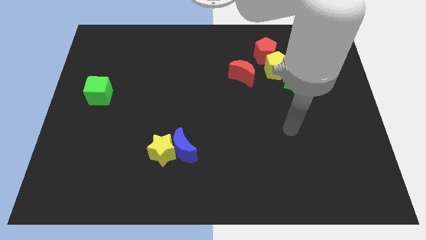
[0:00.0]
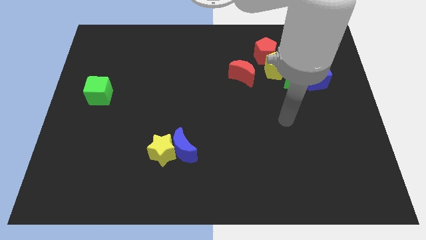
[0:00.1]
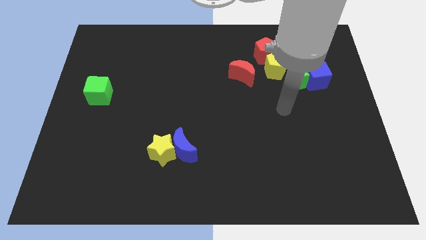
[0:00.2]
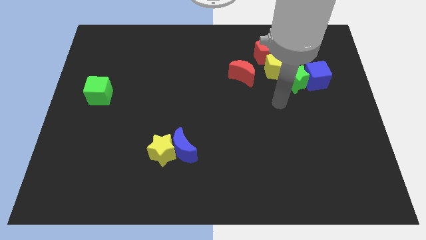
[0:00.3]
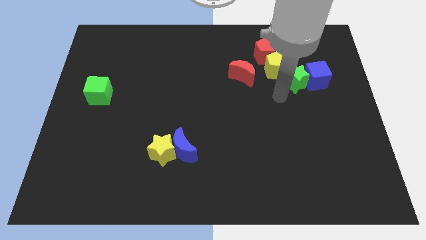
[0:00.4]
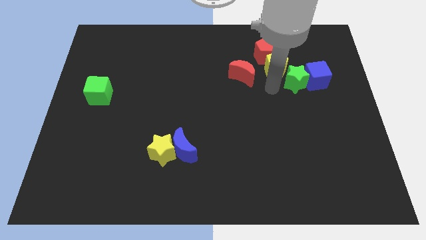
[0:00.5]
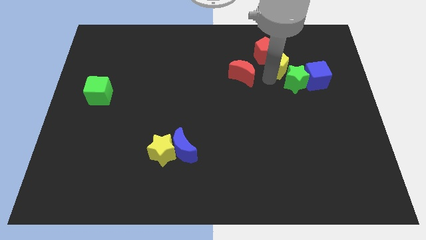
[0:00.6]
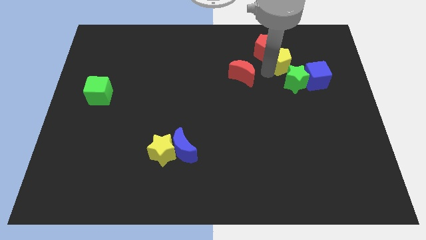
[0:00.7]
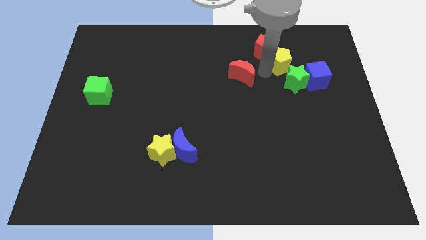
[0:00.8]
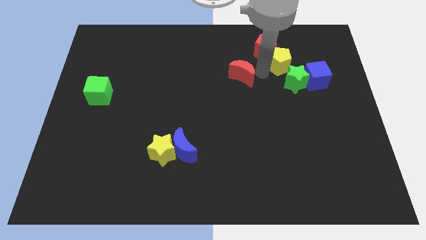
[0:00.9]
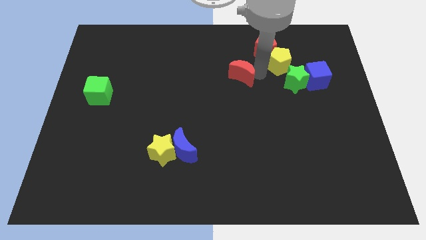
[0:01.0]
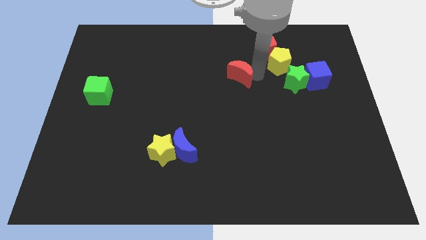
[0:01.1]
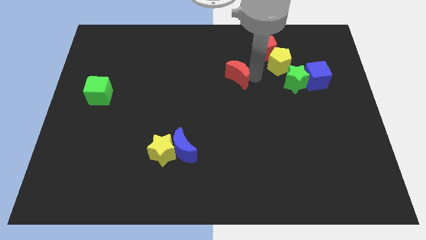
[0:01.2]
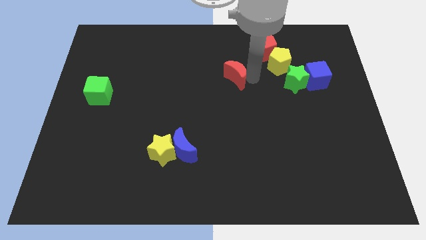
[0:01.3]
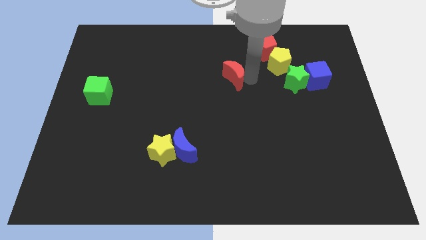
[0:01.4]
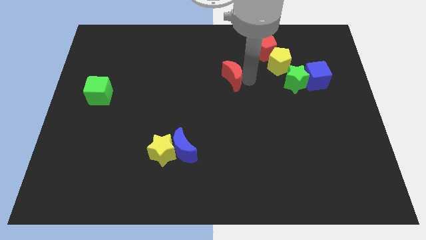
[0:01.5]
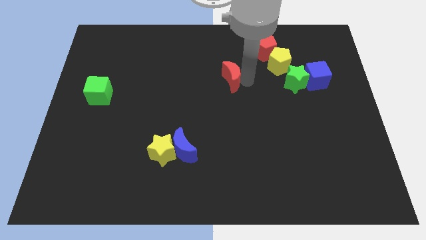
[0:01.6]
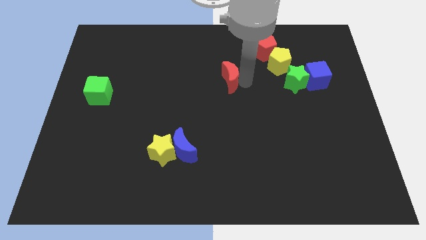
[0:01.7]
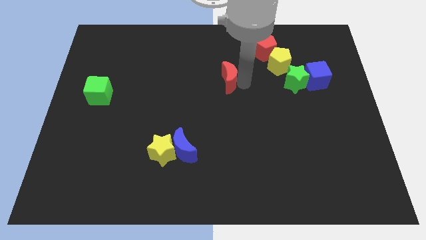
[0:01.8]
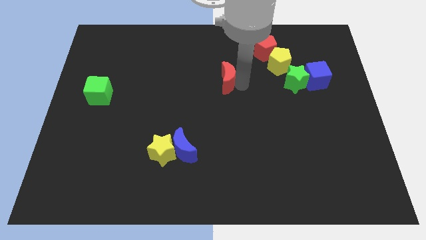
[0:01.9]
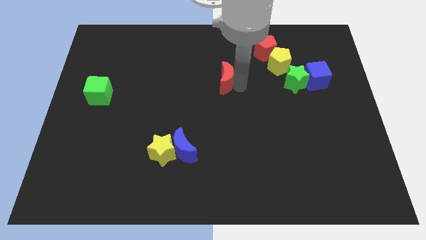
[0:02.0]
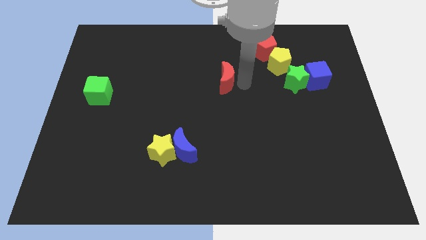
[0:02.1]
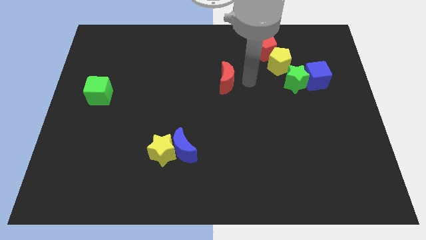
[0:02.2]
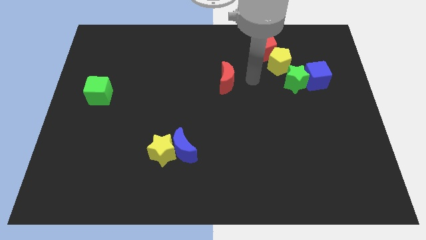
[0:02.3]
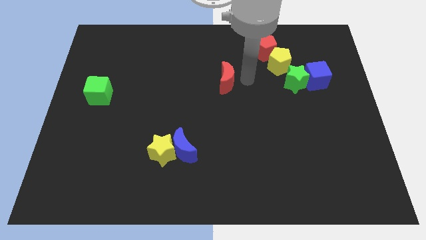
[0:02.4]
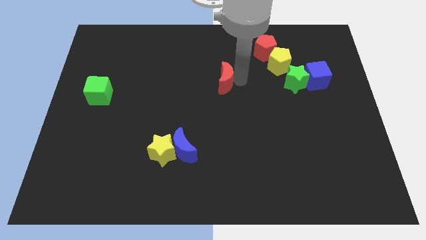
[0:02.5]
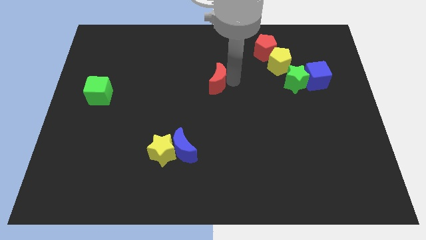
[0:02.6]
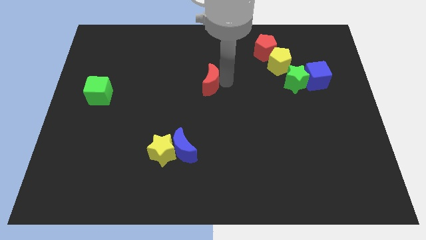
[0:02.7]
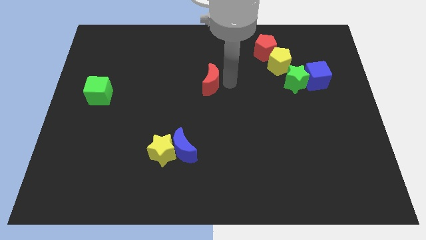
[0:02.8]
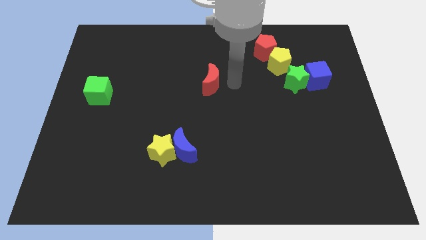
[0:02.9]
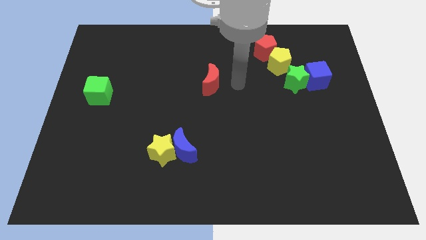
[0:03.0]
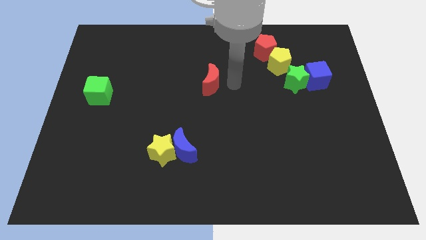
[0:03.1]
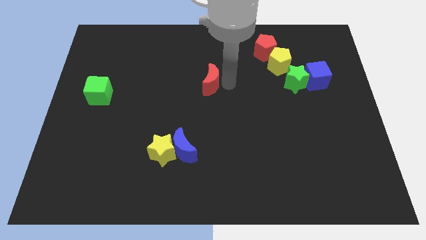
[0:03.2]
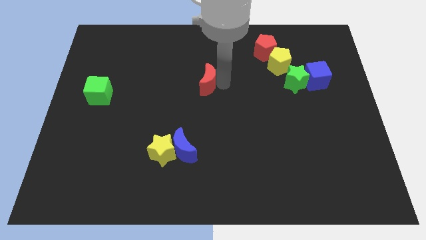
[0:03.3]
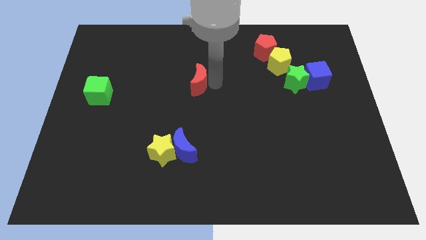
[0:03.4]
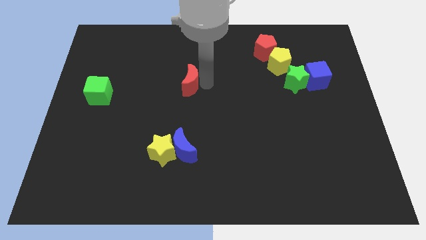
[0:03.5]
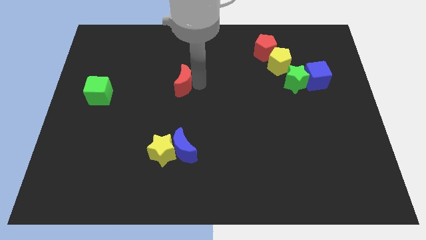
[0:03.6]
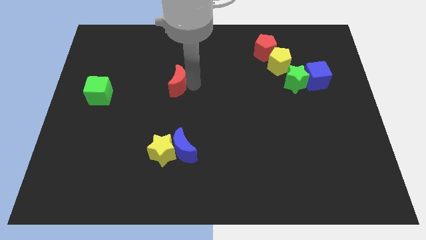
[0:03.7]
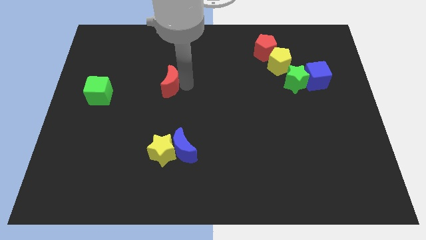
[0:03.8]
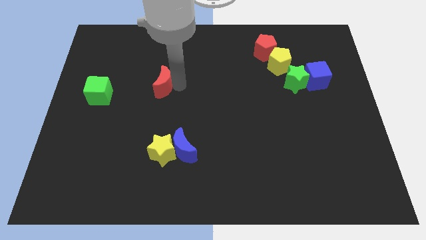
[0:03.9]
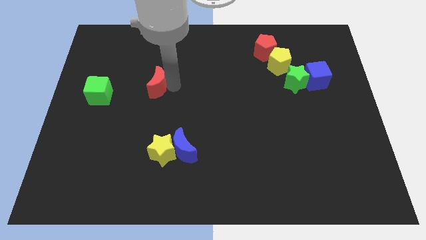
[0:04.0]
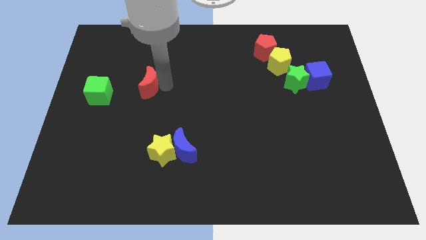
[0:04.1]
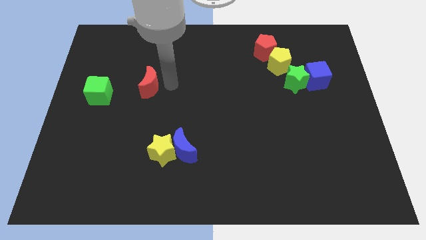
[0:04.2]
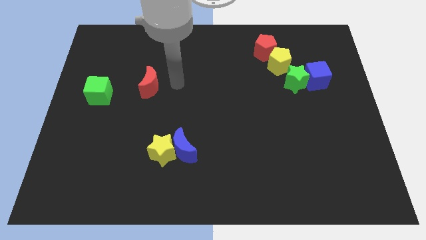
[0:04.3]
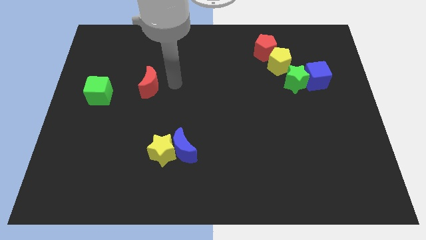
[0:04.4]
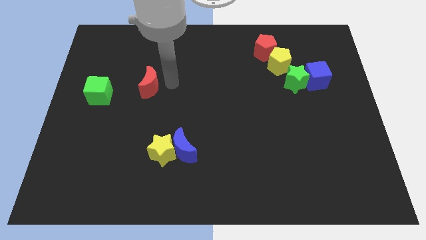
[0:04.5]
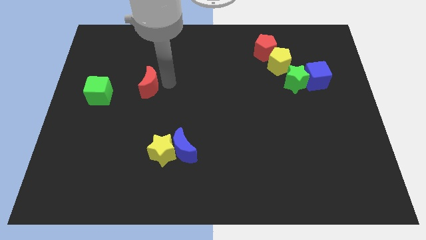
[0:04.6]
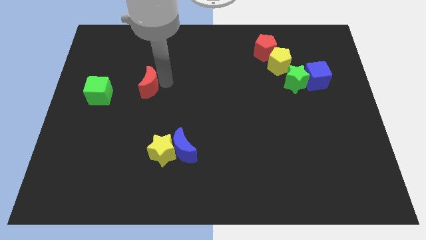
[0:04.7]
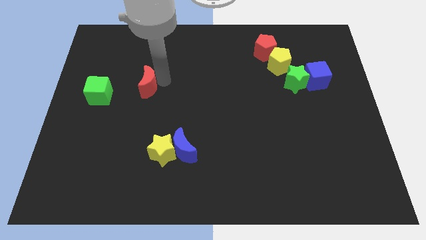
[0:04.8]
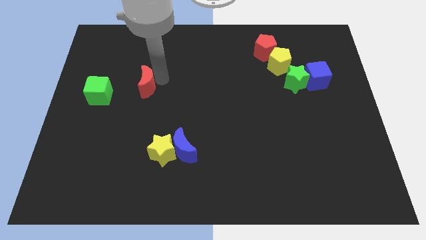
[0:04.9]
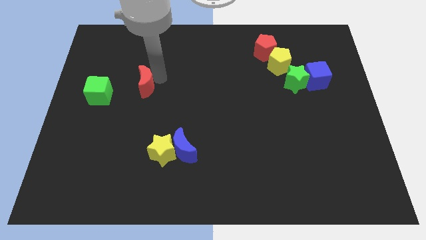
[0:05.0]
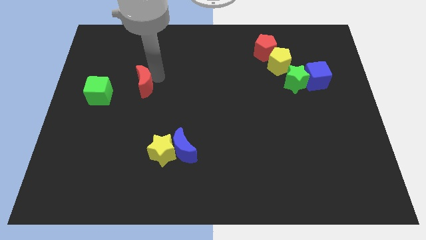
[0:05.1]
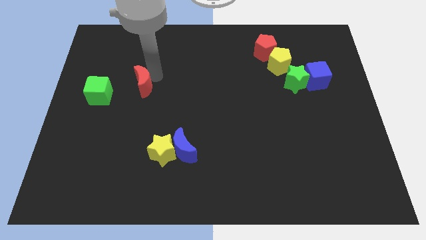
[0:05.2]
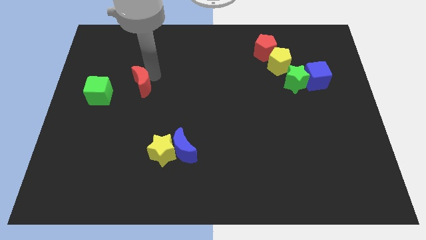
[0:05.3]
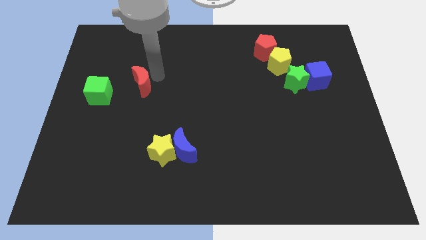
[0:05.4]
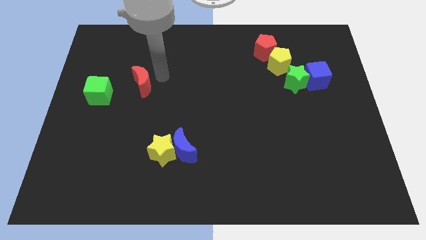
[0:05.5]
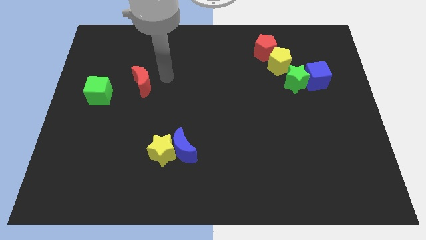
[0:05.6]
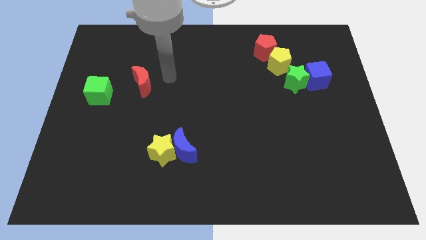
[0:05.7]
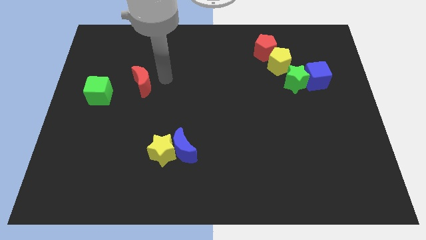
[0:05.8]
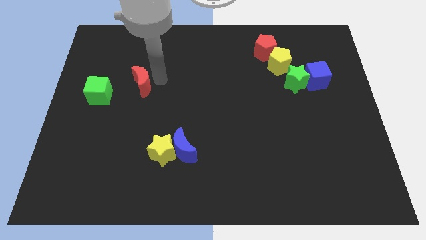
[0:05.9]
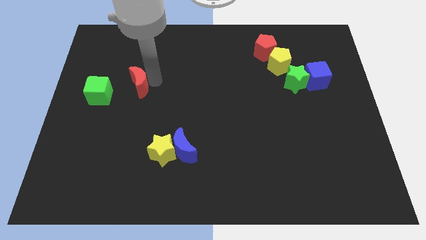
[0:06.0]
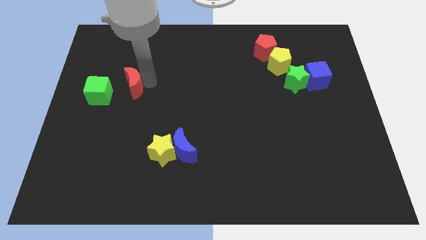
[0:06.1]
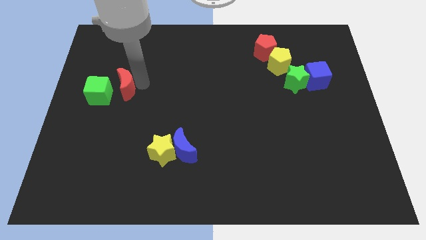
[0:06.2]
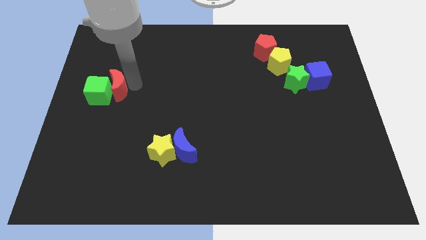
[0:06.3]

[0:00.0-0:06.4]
push the red moon to the green cube

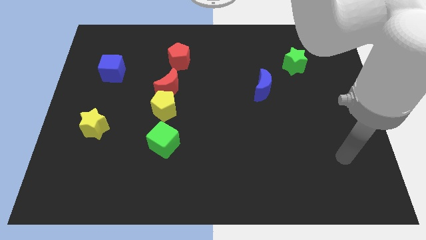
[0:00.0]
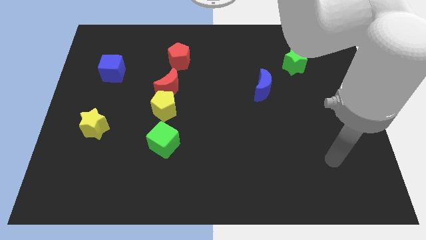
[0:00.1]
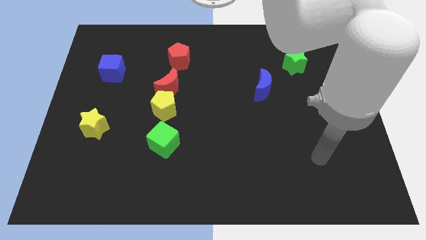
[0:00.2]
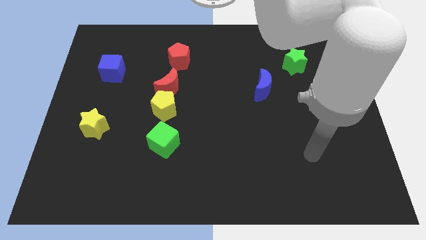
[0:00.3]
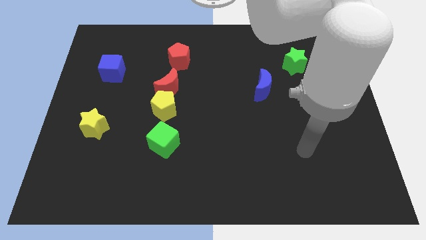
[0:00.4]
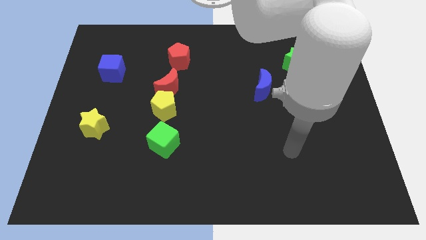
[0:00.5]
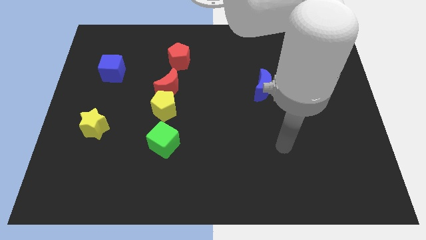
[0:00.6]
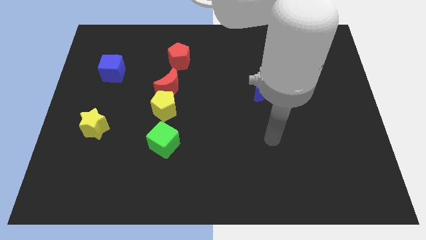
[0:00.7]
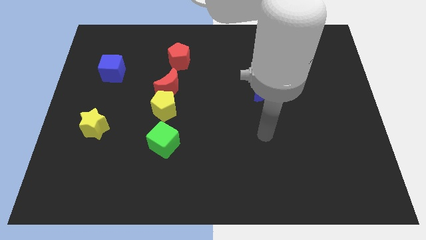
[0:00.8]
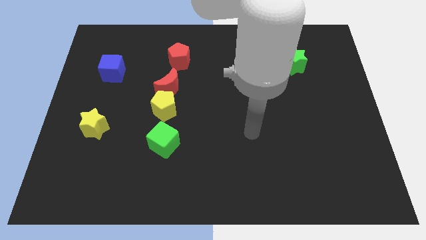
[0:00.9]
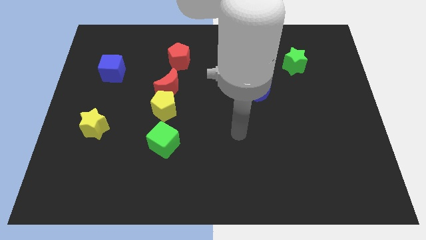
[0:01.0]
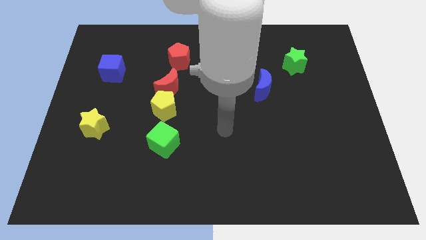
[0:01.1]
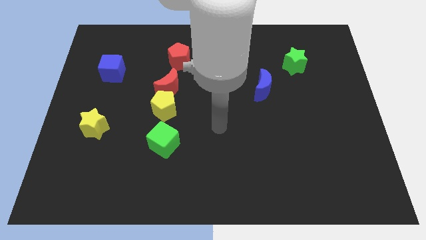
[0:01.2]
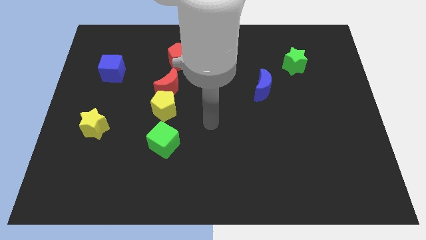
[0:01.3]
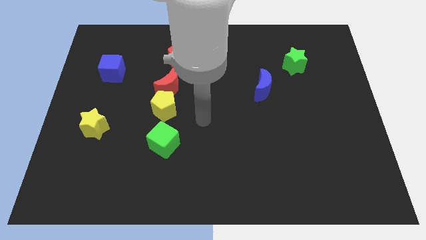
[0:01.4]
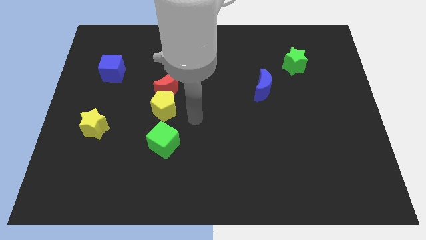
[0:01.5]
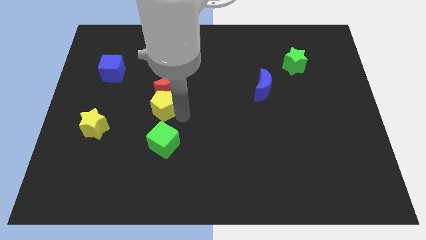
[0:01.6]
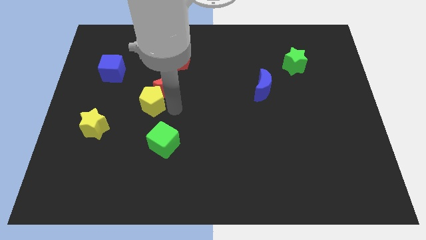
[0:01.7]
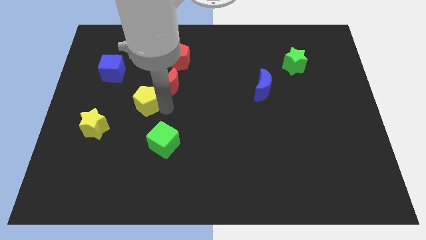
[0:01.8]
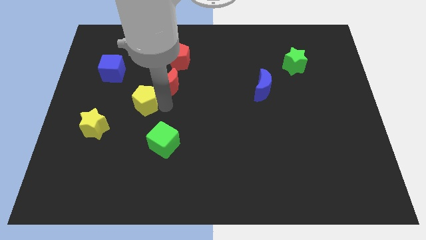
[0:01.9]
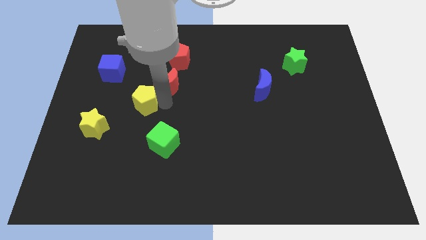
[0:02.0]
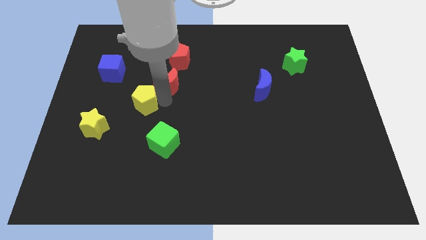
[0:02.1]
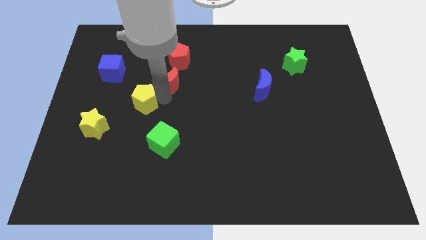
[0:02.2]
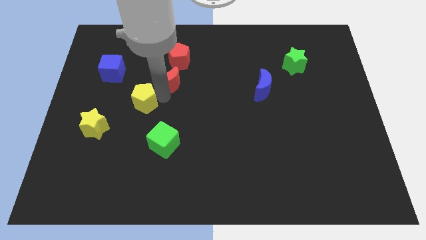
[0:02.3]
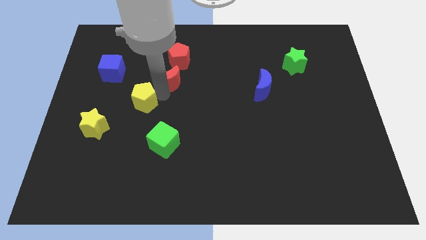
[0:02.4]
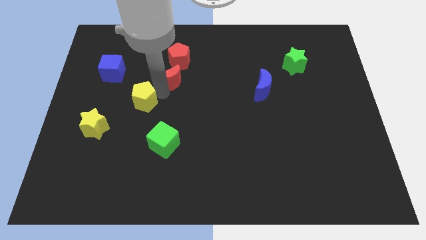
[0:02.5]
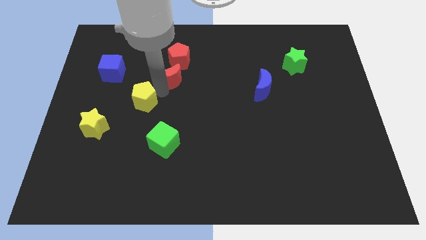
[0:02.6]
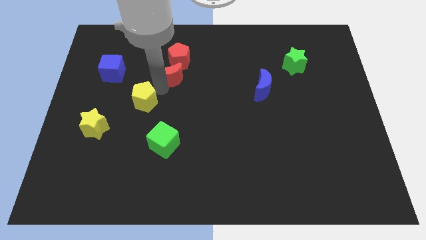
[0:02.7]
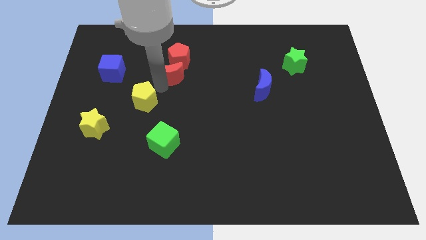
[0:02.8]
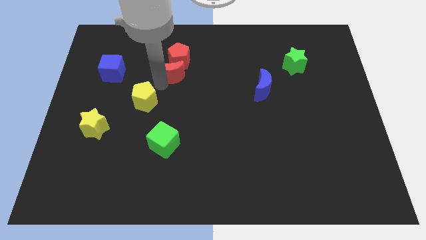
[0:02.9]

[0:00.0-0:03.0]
move the red moon close to the red pentagon
